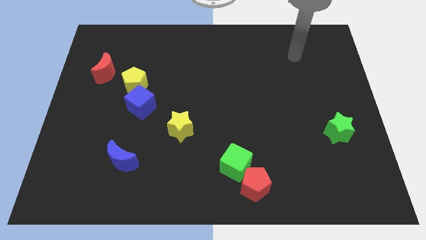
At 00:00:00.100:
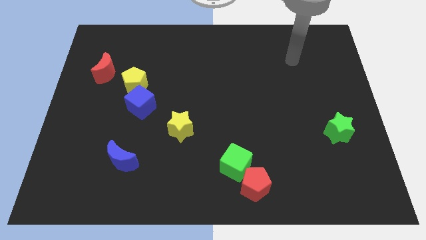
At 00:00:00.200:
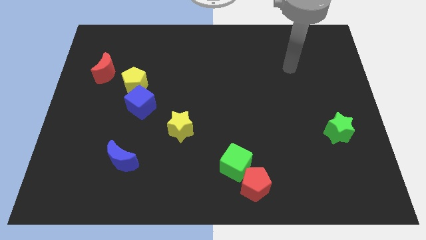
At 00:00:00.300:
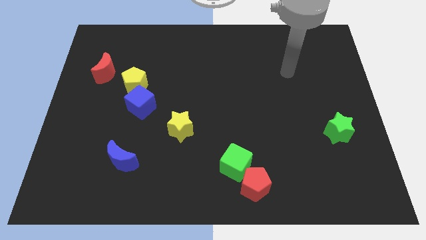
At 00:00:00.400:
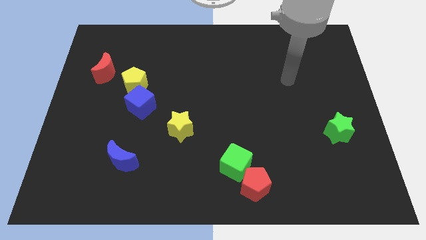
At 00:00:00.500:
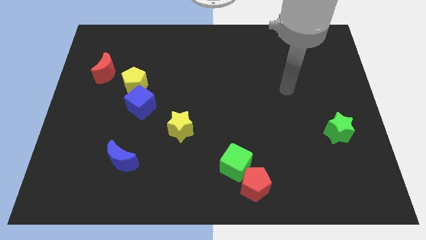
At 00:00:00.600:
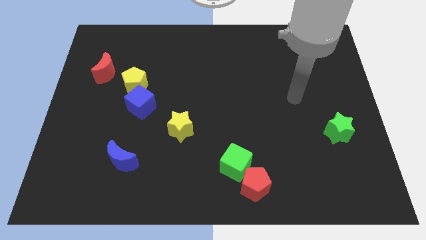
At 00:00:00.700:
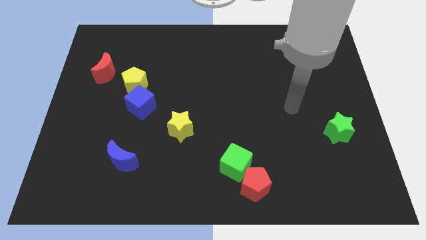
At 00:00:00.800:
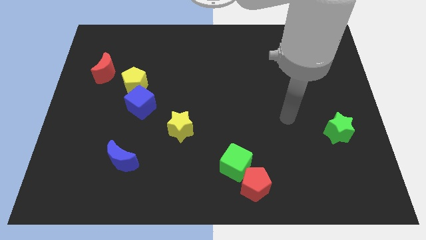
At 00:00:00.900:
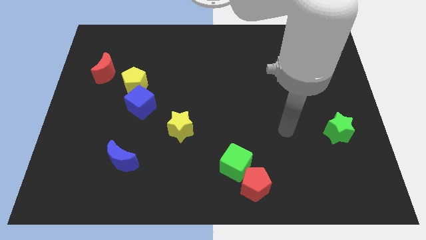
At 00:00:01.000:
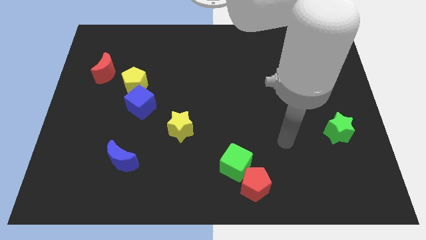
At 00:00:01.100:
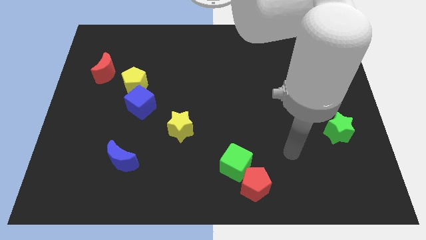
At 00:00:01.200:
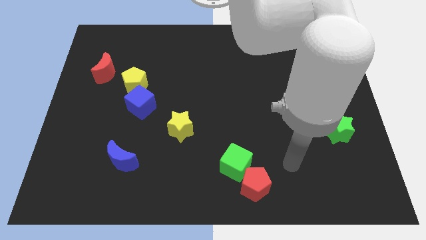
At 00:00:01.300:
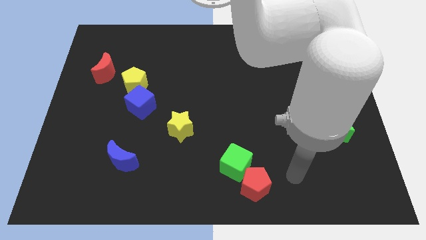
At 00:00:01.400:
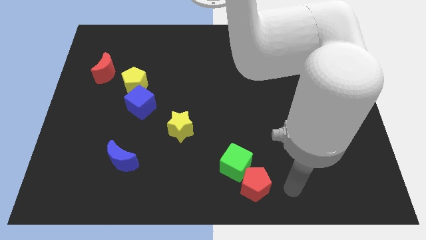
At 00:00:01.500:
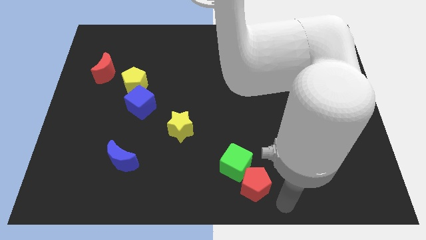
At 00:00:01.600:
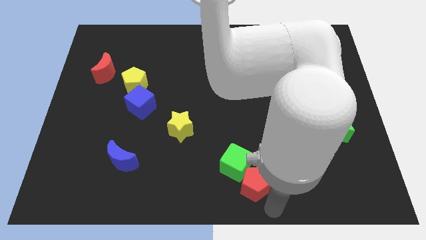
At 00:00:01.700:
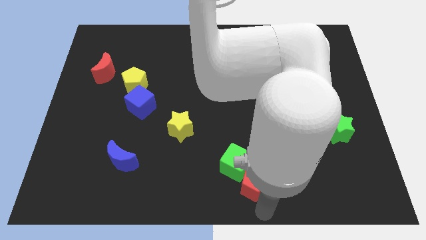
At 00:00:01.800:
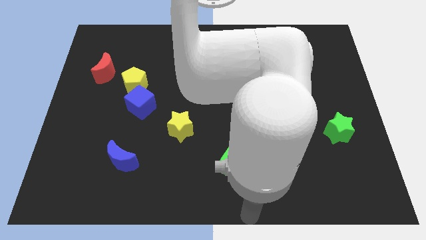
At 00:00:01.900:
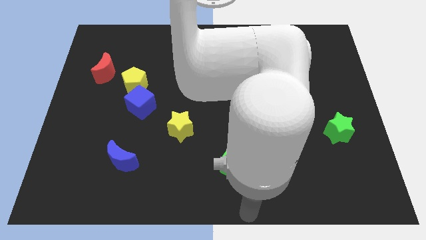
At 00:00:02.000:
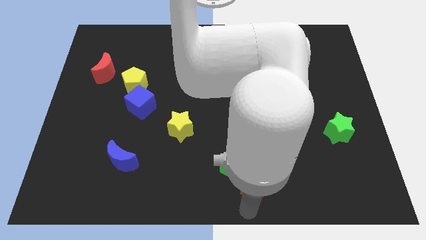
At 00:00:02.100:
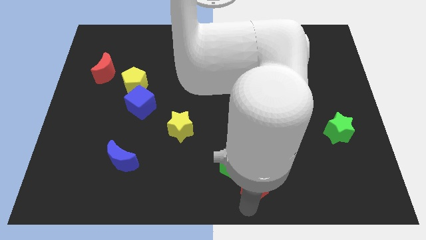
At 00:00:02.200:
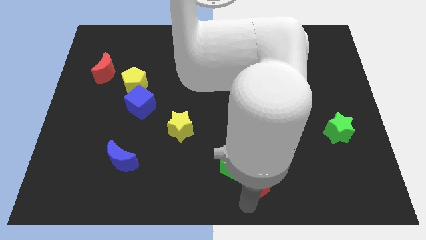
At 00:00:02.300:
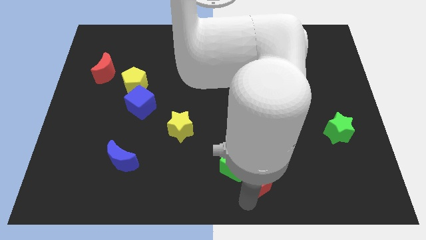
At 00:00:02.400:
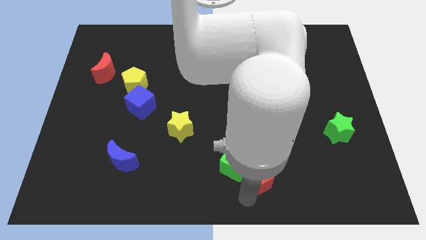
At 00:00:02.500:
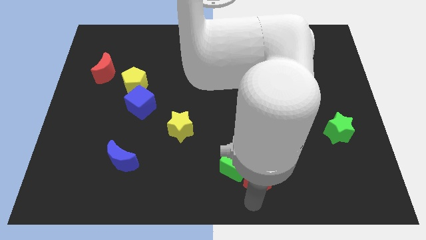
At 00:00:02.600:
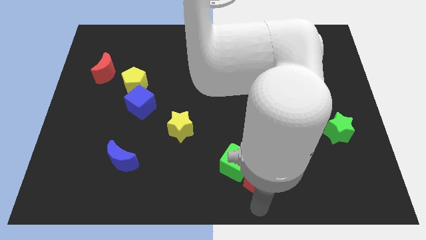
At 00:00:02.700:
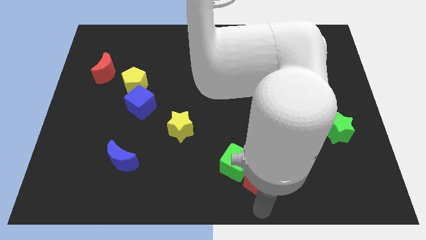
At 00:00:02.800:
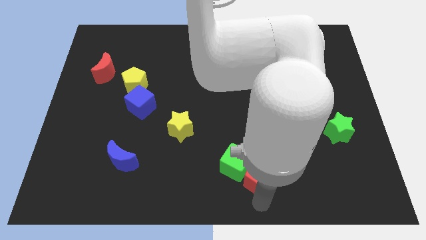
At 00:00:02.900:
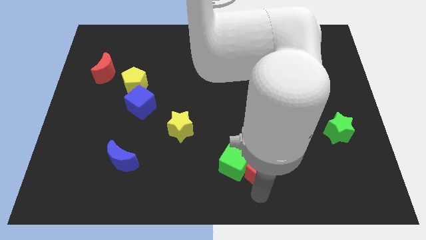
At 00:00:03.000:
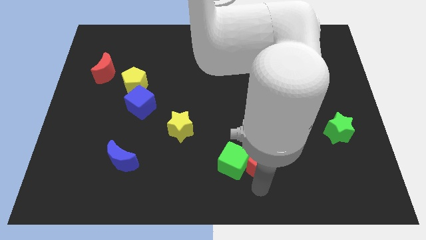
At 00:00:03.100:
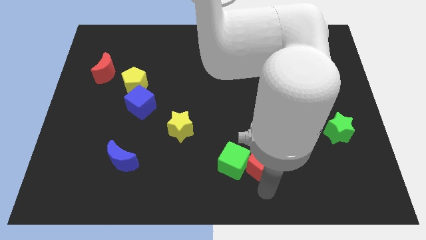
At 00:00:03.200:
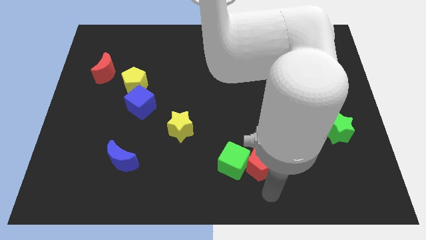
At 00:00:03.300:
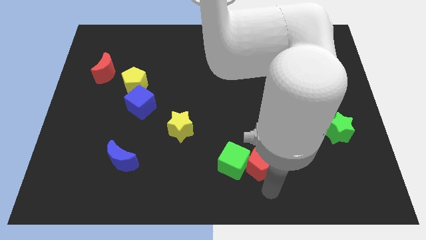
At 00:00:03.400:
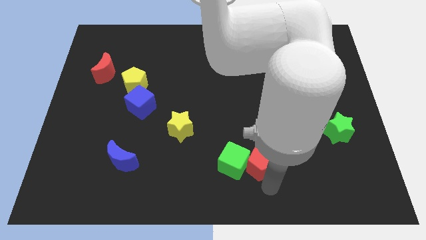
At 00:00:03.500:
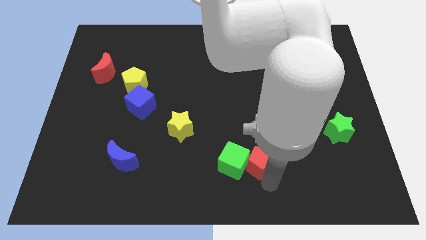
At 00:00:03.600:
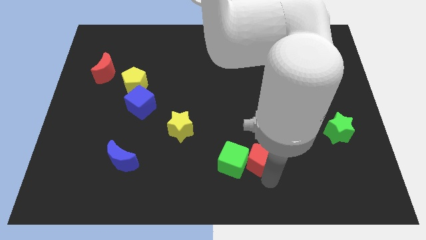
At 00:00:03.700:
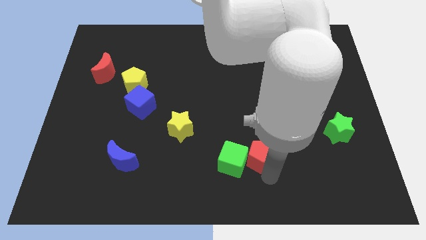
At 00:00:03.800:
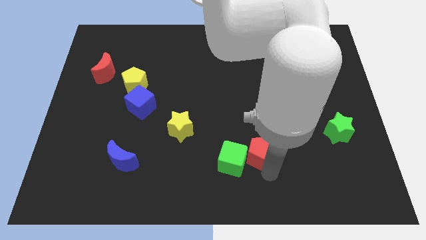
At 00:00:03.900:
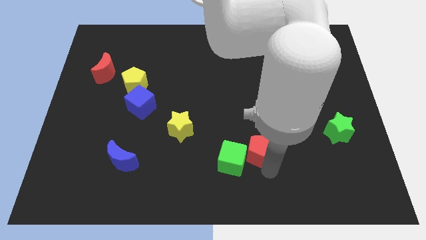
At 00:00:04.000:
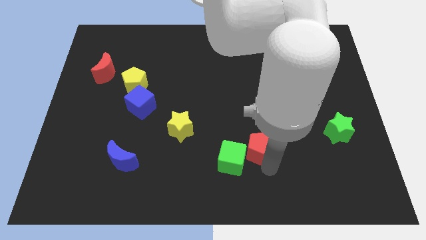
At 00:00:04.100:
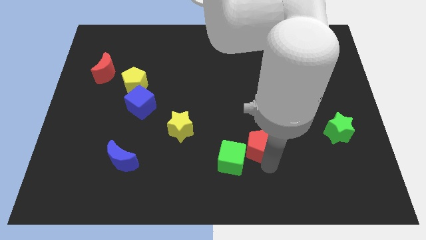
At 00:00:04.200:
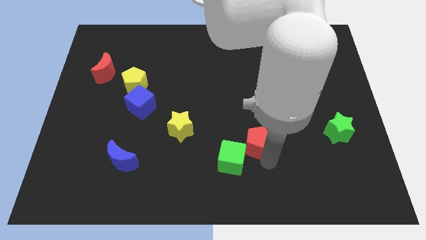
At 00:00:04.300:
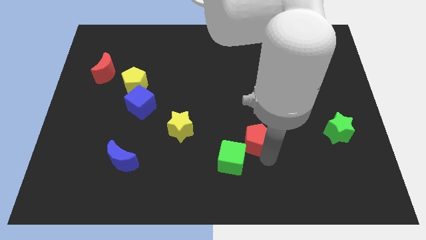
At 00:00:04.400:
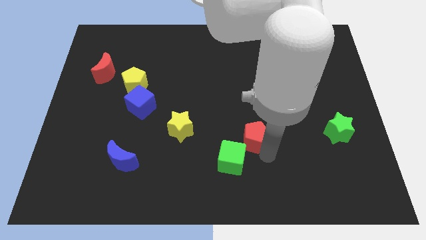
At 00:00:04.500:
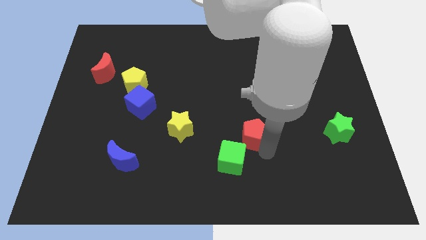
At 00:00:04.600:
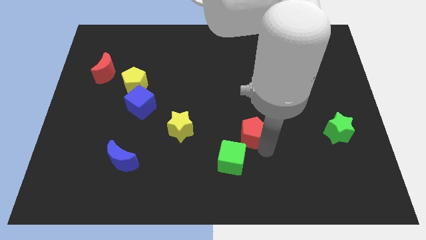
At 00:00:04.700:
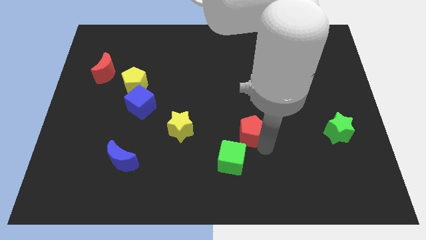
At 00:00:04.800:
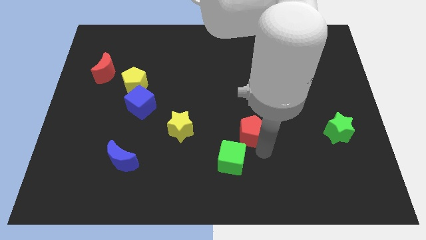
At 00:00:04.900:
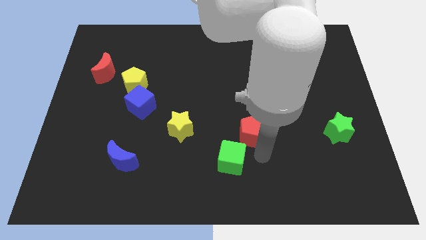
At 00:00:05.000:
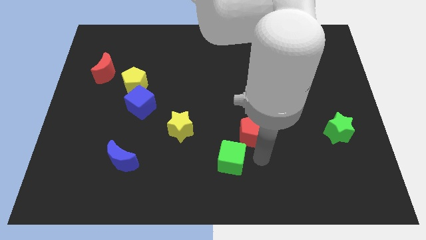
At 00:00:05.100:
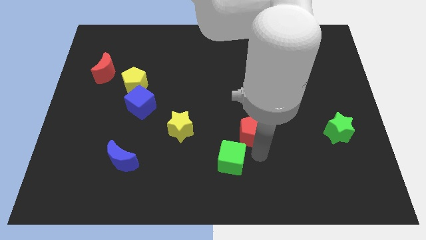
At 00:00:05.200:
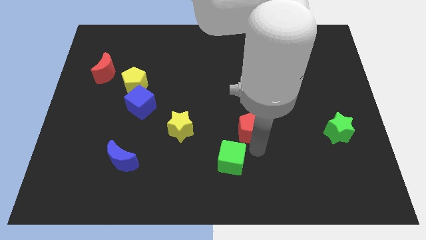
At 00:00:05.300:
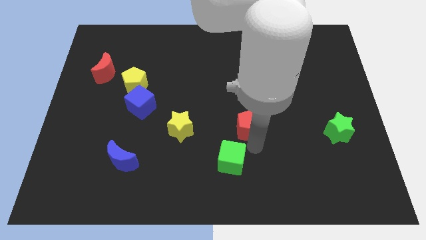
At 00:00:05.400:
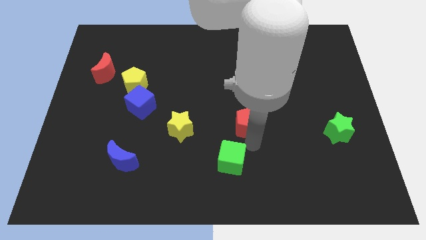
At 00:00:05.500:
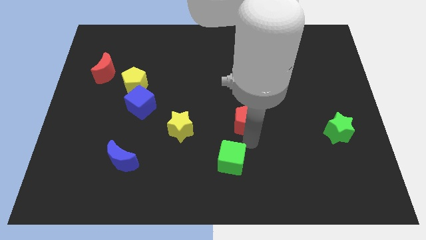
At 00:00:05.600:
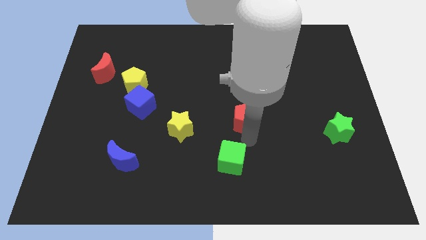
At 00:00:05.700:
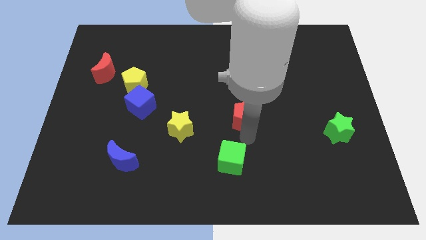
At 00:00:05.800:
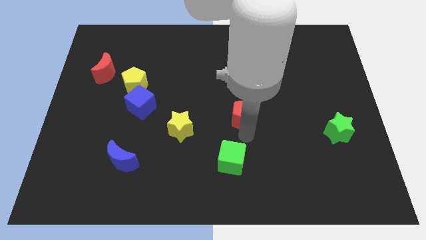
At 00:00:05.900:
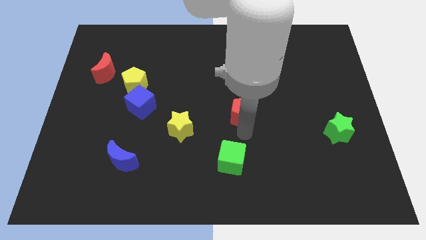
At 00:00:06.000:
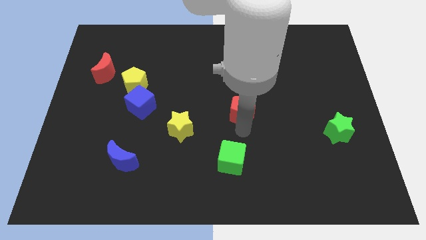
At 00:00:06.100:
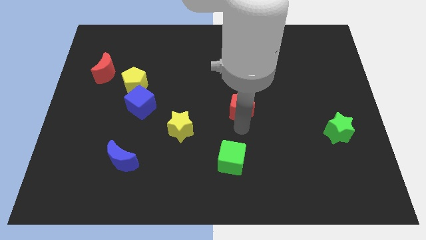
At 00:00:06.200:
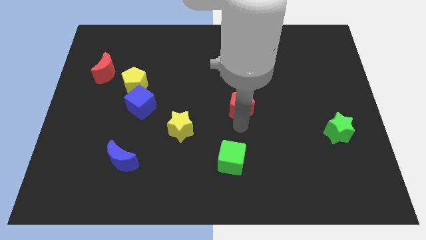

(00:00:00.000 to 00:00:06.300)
slide the red pentagon upwards

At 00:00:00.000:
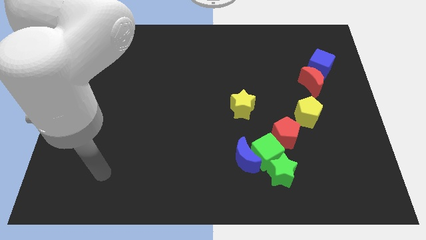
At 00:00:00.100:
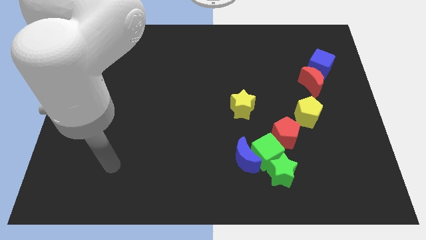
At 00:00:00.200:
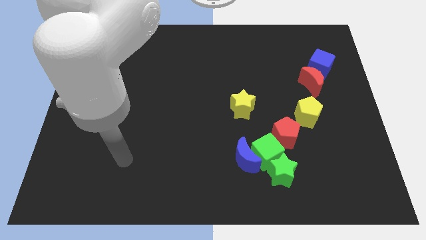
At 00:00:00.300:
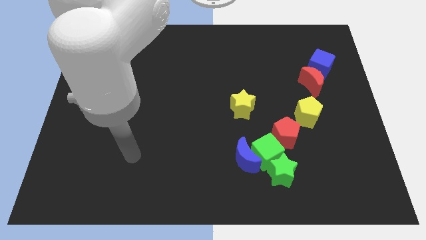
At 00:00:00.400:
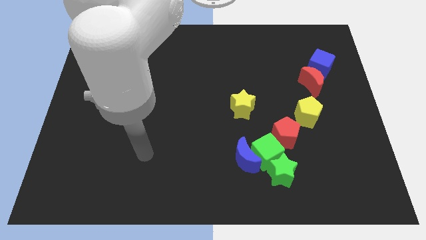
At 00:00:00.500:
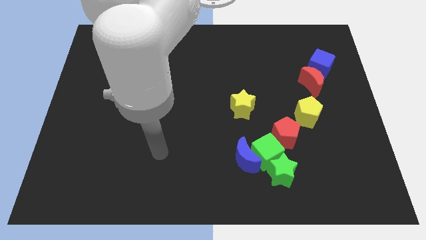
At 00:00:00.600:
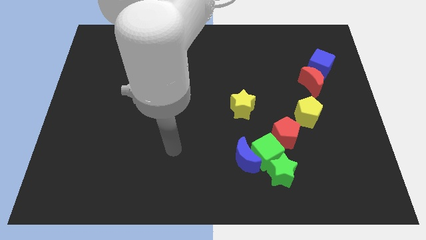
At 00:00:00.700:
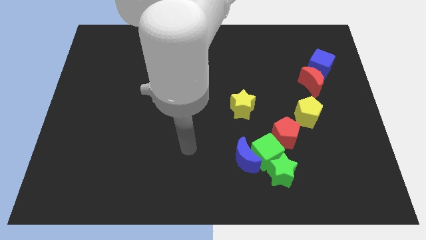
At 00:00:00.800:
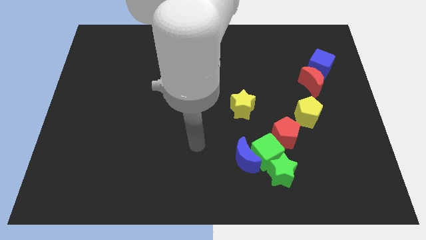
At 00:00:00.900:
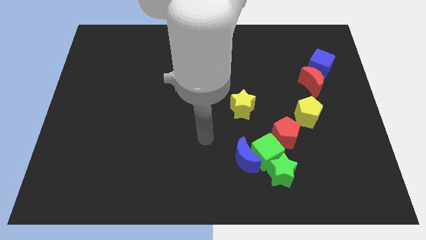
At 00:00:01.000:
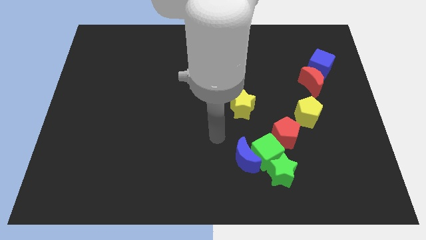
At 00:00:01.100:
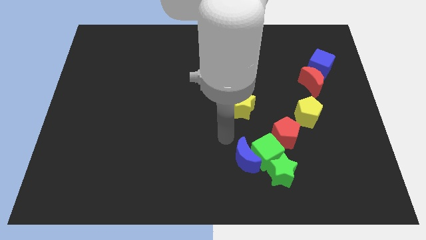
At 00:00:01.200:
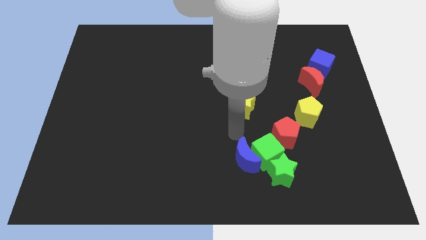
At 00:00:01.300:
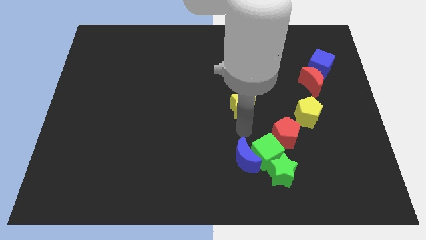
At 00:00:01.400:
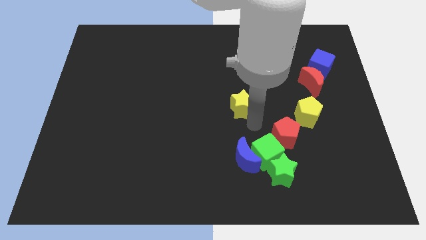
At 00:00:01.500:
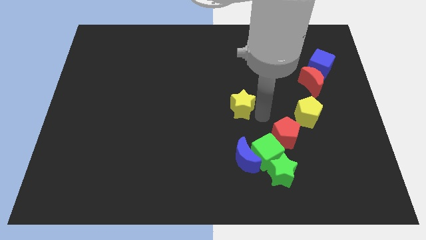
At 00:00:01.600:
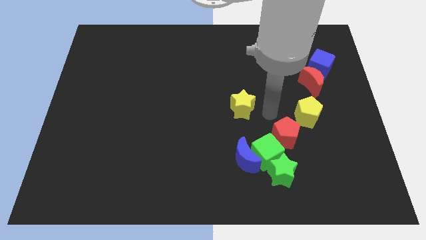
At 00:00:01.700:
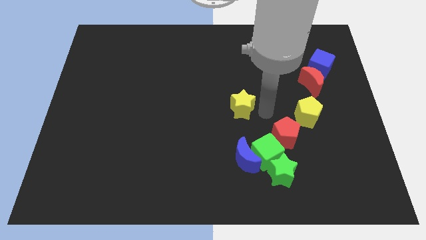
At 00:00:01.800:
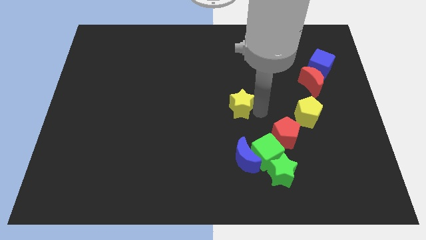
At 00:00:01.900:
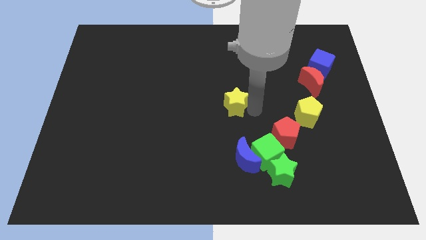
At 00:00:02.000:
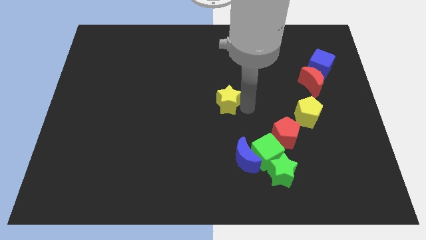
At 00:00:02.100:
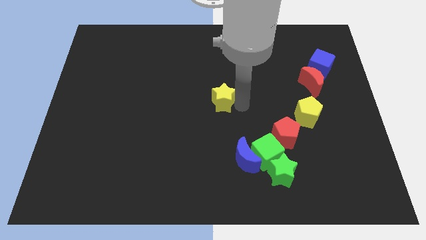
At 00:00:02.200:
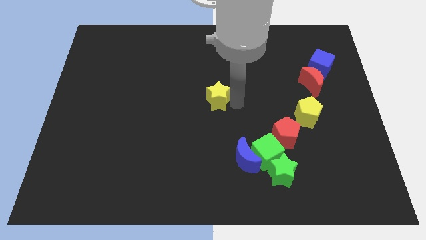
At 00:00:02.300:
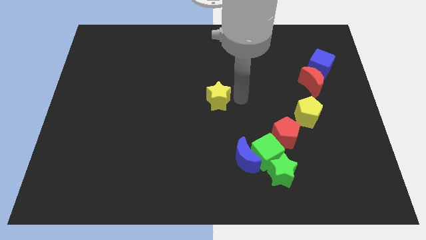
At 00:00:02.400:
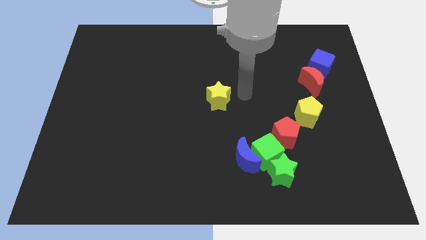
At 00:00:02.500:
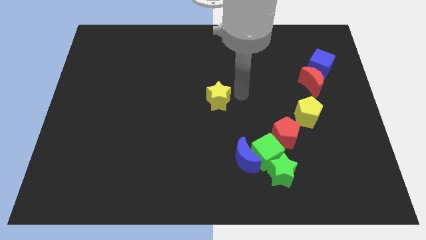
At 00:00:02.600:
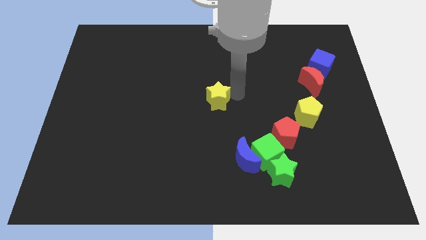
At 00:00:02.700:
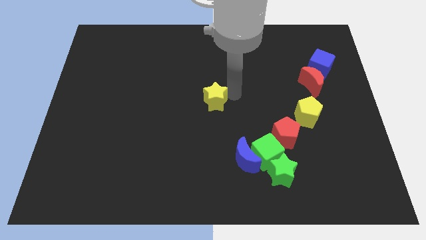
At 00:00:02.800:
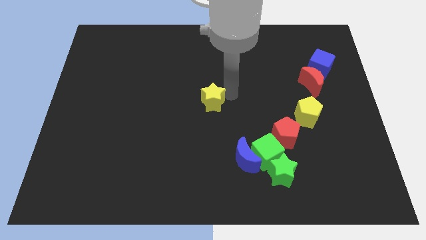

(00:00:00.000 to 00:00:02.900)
slightly push the yellow star to the left
